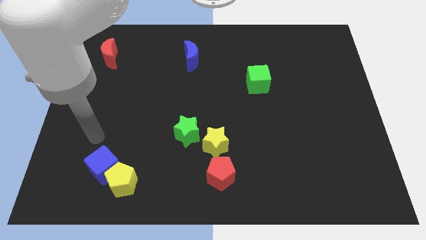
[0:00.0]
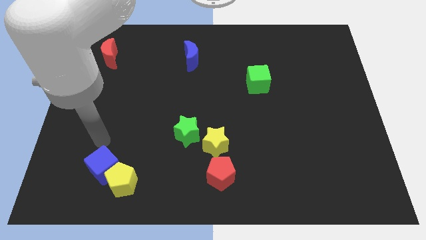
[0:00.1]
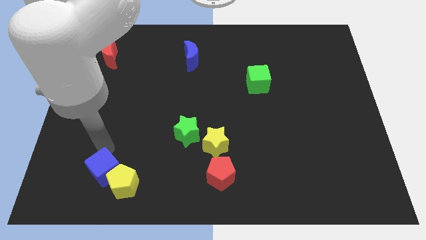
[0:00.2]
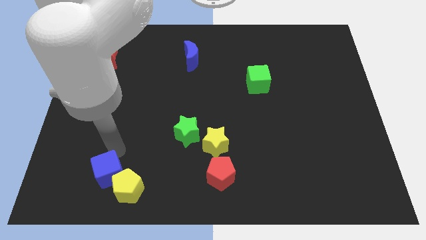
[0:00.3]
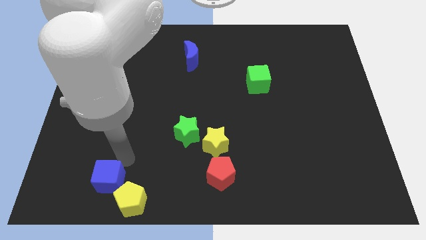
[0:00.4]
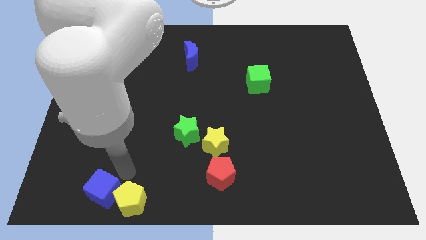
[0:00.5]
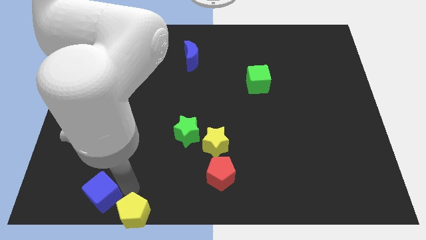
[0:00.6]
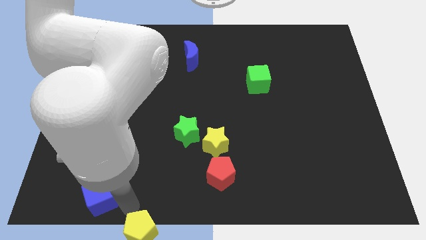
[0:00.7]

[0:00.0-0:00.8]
separate the blue cube from the yellow pentagon

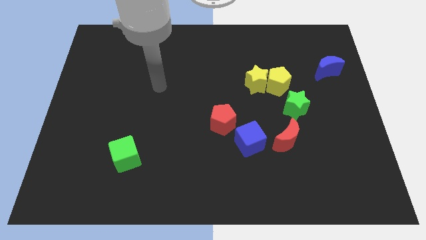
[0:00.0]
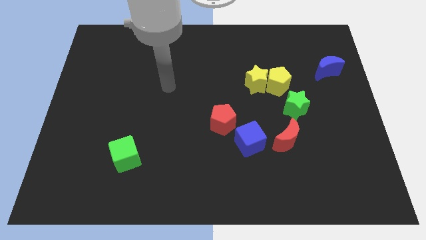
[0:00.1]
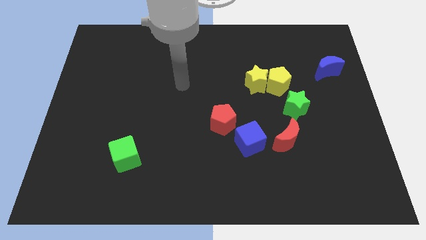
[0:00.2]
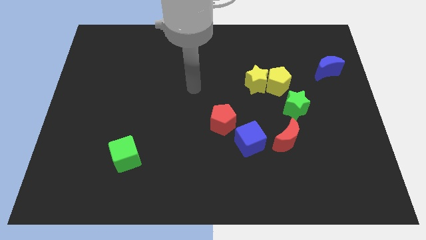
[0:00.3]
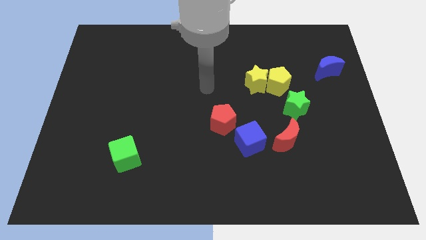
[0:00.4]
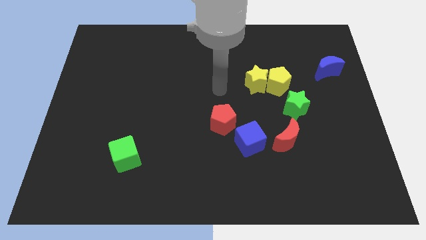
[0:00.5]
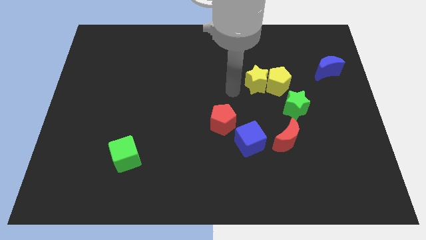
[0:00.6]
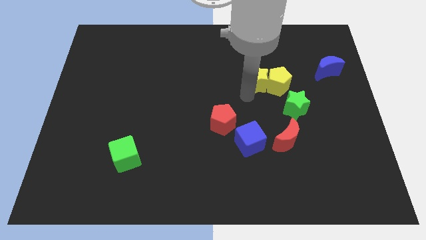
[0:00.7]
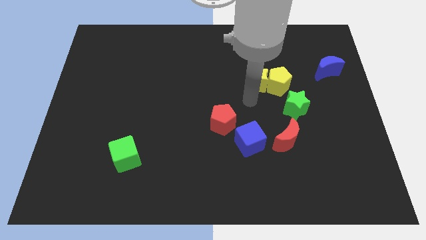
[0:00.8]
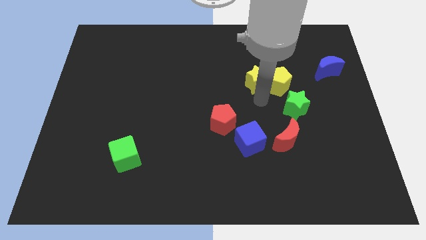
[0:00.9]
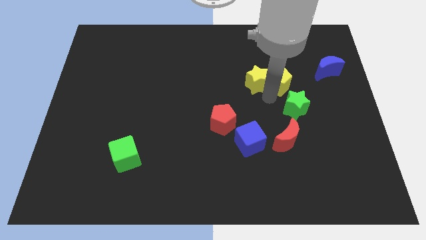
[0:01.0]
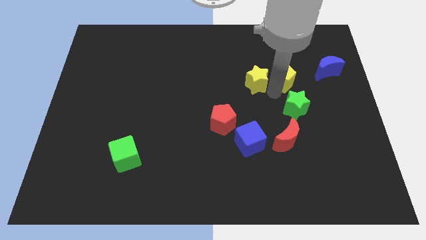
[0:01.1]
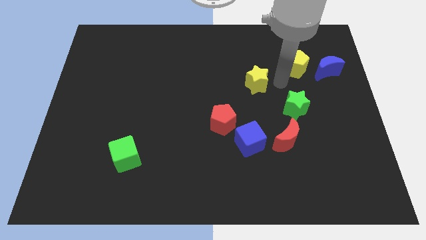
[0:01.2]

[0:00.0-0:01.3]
pull the yellow star apart from the yellow pentagon

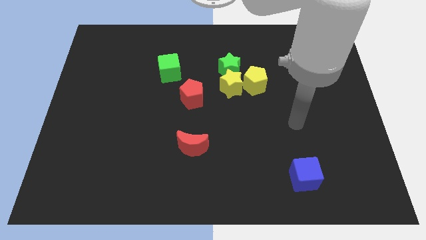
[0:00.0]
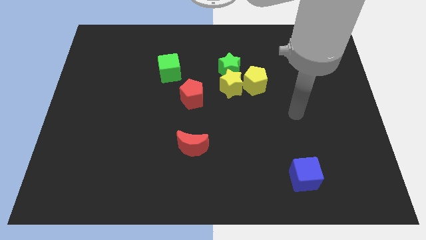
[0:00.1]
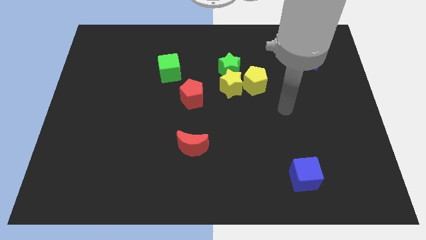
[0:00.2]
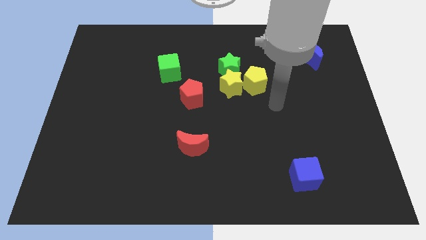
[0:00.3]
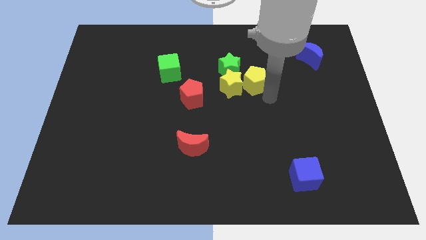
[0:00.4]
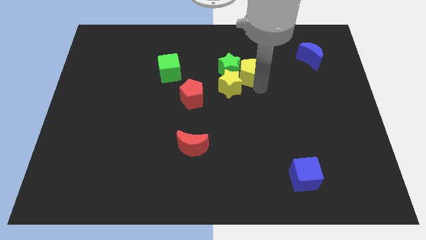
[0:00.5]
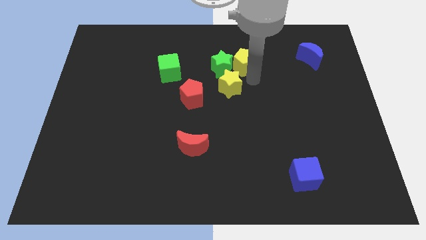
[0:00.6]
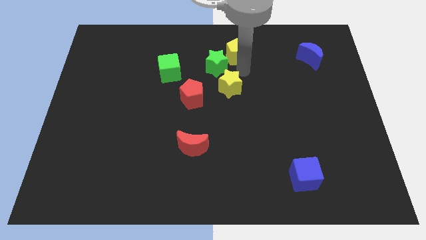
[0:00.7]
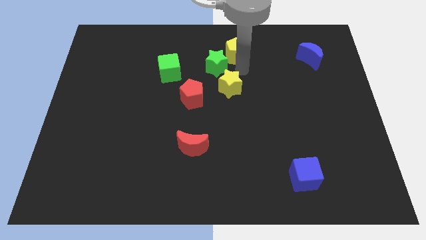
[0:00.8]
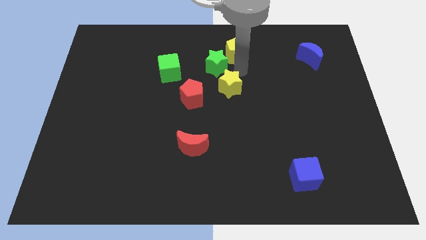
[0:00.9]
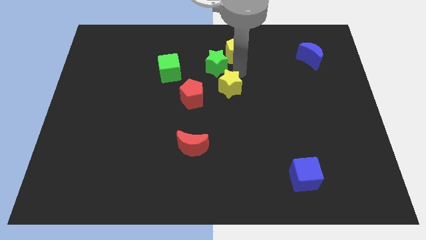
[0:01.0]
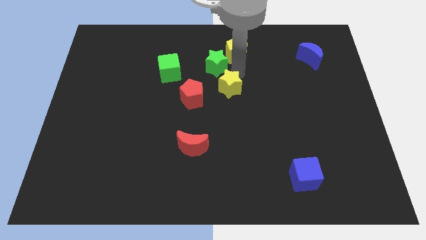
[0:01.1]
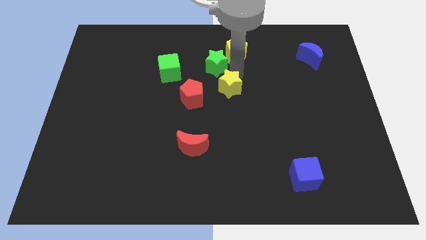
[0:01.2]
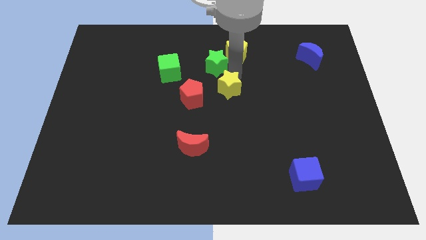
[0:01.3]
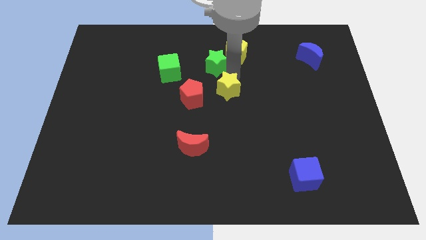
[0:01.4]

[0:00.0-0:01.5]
separate the yellow star from the green star and yellow pentagon

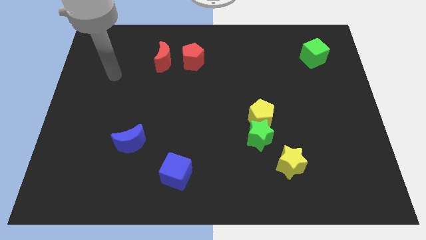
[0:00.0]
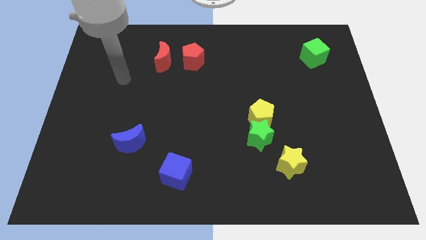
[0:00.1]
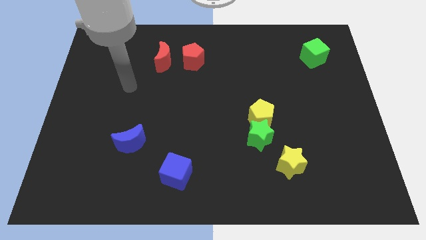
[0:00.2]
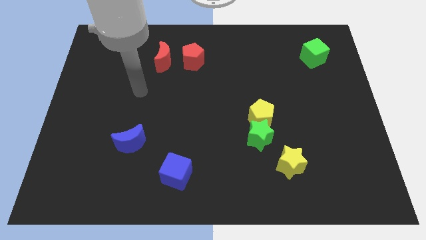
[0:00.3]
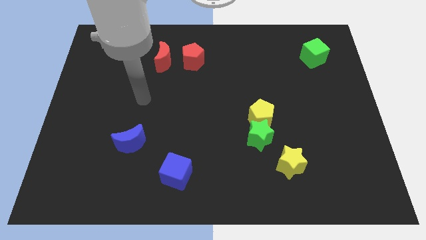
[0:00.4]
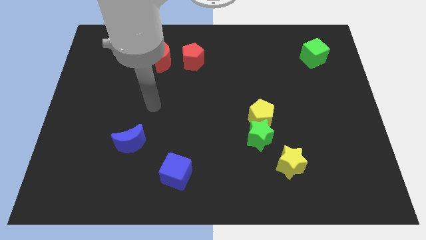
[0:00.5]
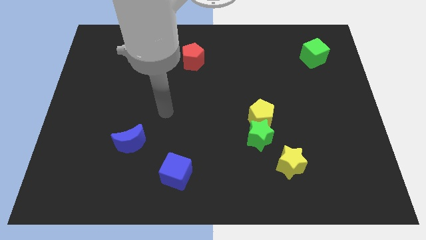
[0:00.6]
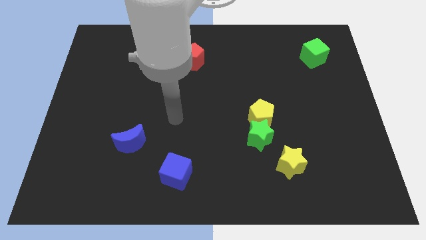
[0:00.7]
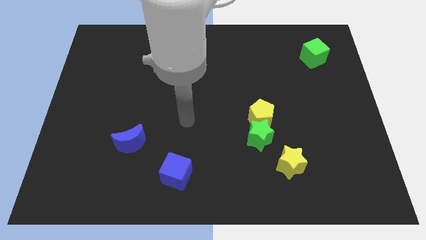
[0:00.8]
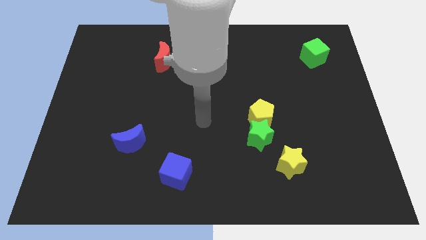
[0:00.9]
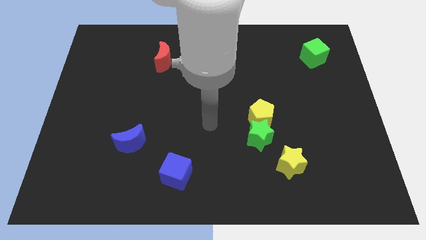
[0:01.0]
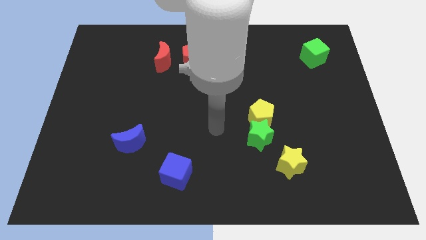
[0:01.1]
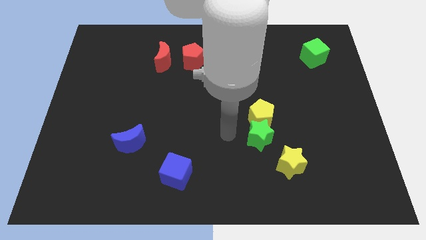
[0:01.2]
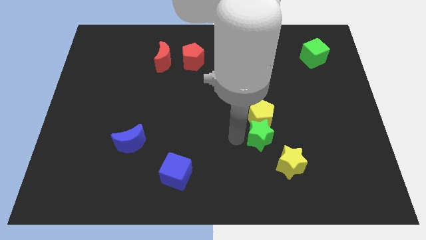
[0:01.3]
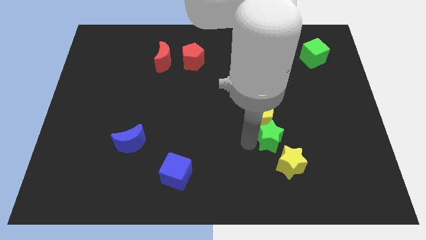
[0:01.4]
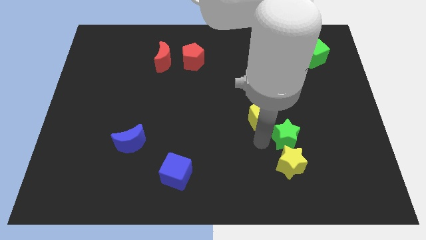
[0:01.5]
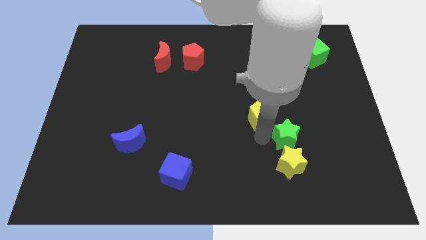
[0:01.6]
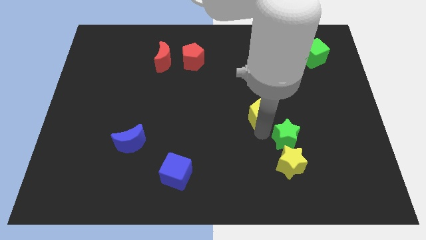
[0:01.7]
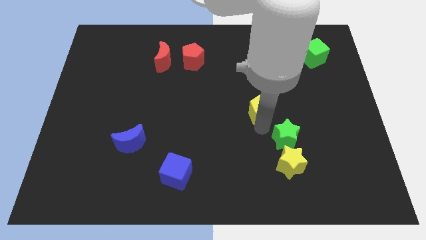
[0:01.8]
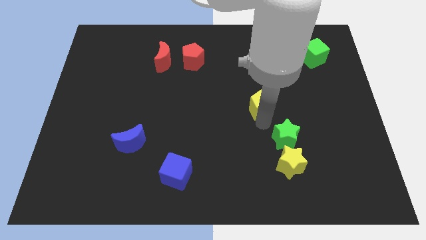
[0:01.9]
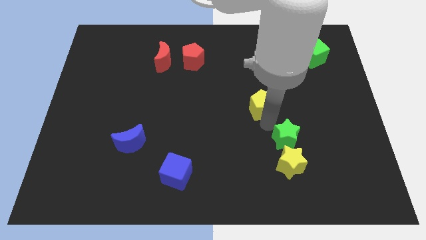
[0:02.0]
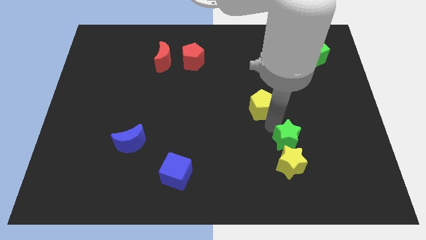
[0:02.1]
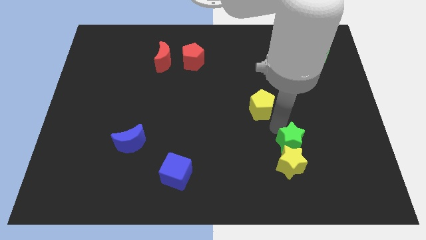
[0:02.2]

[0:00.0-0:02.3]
pull the yellow pentagon apart from the green star

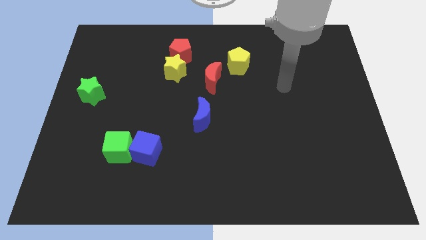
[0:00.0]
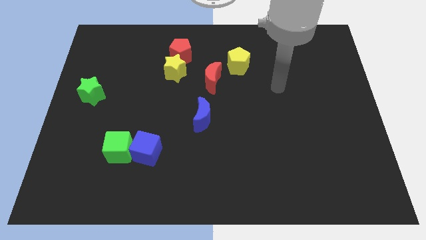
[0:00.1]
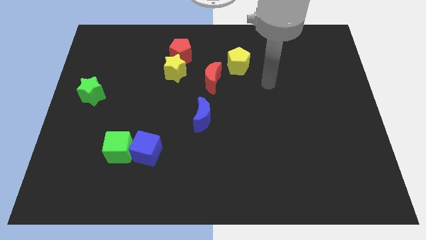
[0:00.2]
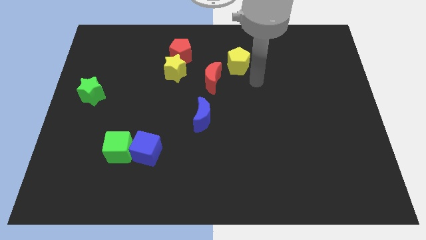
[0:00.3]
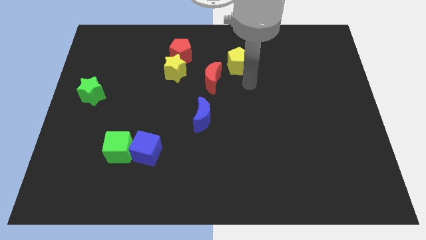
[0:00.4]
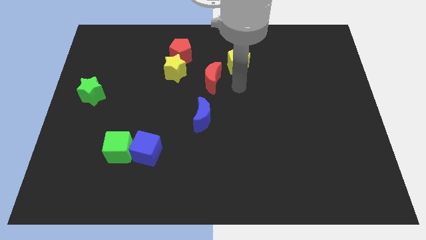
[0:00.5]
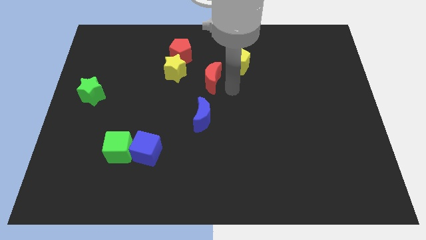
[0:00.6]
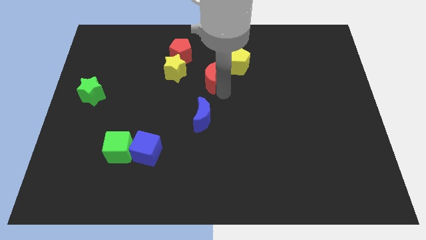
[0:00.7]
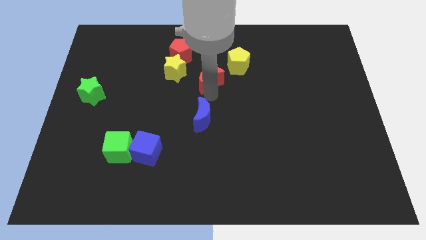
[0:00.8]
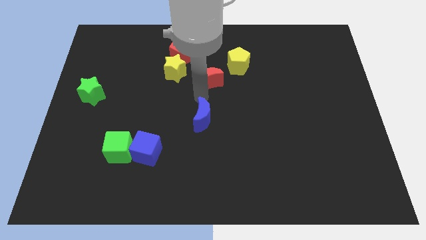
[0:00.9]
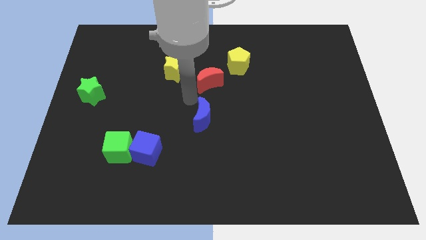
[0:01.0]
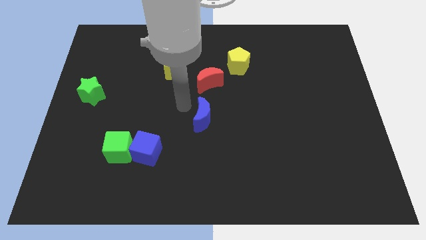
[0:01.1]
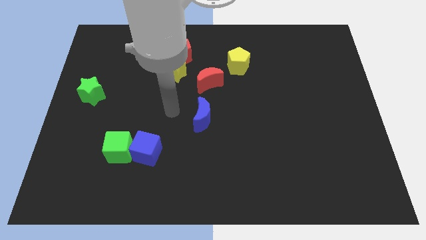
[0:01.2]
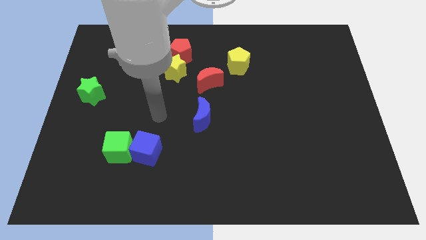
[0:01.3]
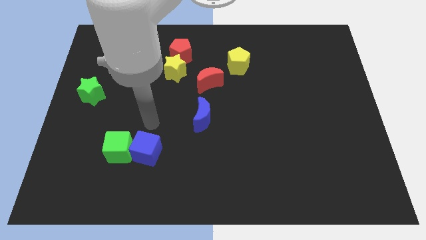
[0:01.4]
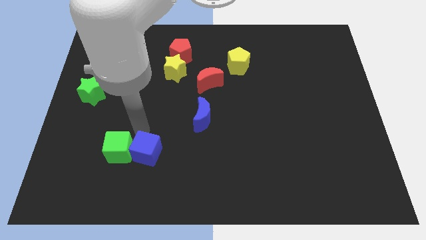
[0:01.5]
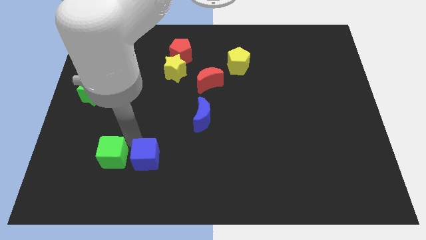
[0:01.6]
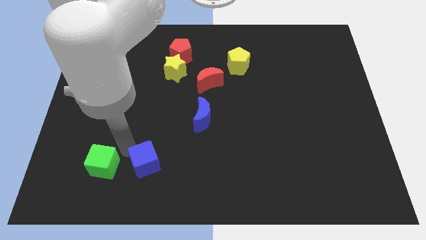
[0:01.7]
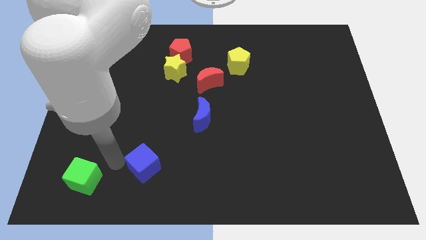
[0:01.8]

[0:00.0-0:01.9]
pull the blue cube apart from the green cube

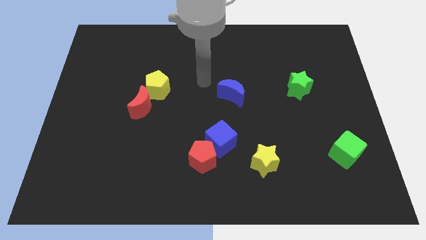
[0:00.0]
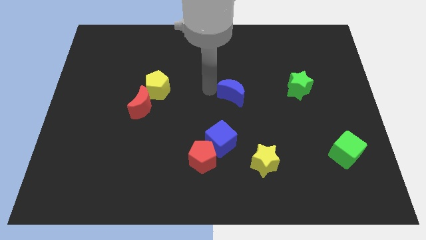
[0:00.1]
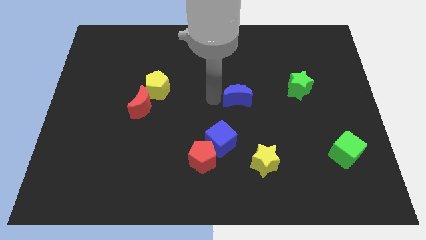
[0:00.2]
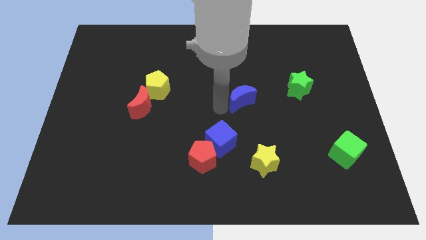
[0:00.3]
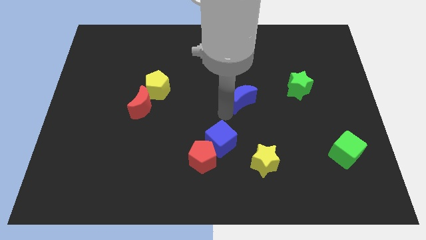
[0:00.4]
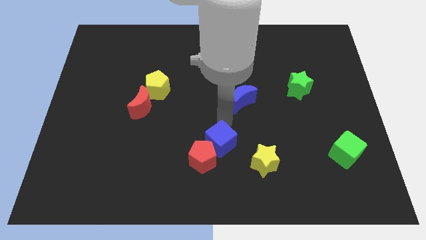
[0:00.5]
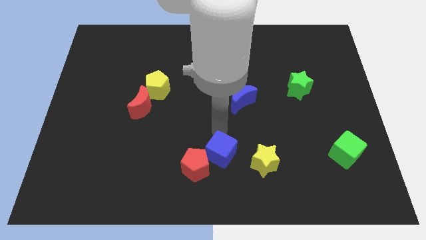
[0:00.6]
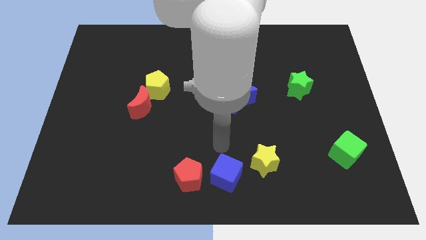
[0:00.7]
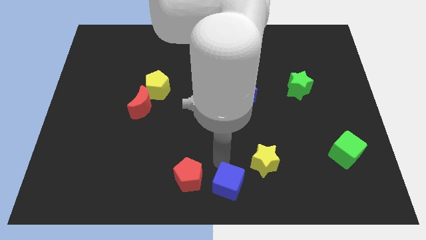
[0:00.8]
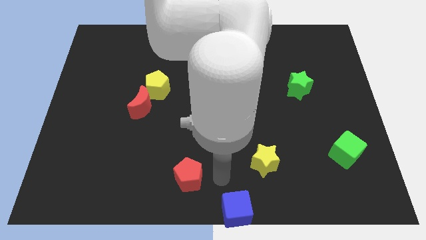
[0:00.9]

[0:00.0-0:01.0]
move the red pentagon away from the blue cube

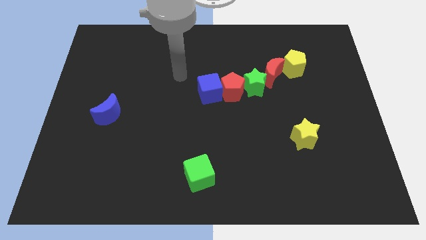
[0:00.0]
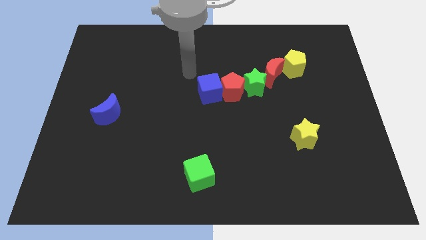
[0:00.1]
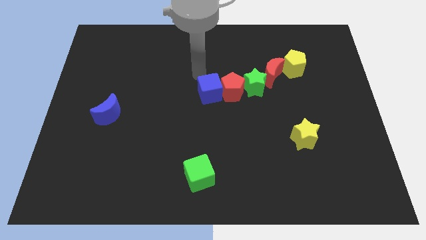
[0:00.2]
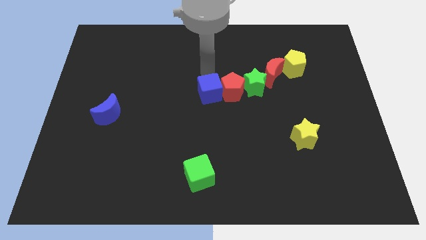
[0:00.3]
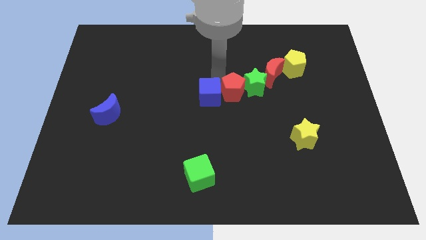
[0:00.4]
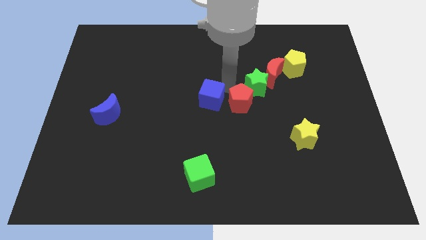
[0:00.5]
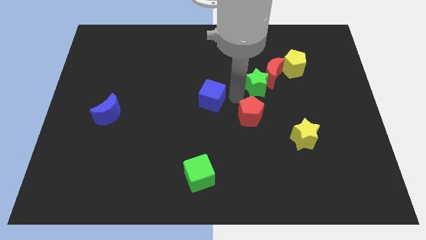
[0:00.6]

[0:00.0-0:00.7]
pull the blue cube apart from the red pentagon
